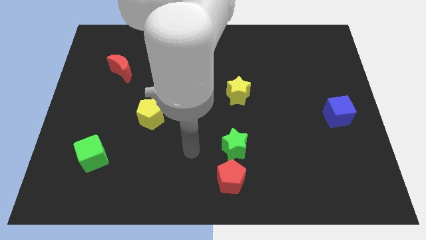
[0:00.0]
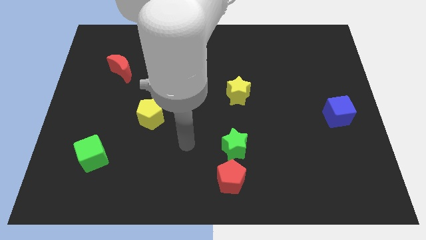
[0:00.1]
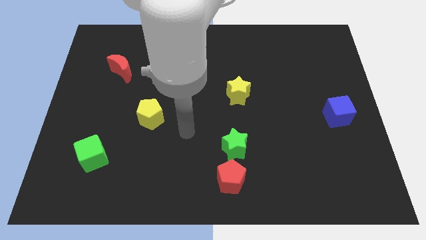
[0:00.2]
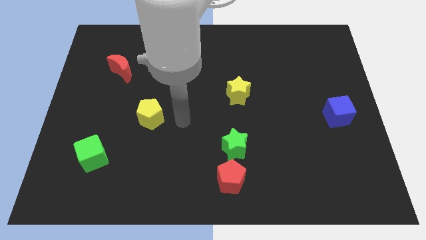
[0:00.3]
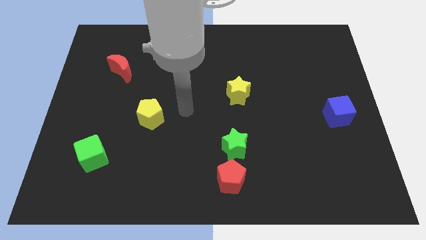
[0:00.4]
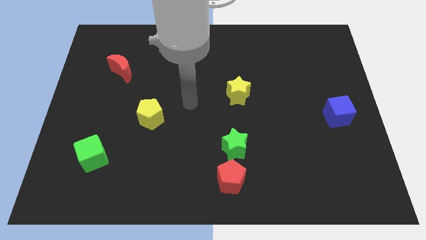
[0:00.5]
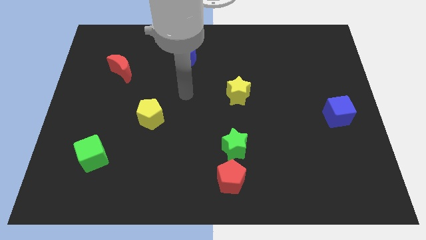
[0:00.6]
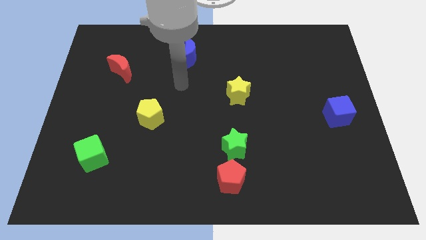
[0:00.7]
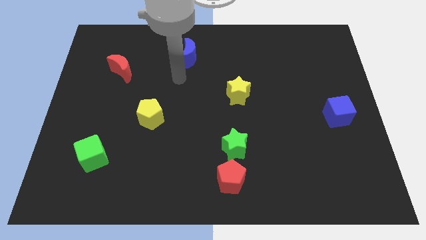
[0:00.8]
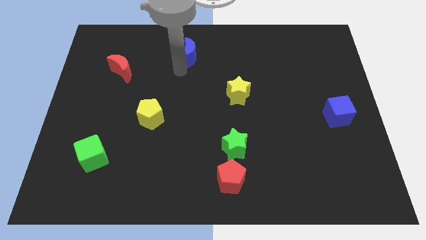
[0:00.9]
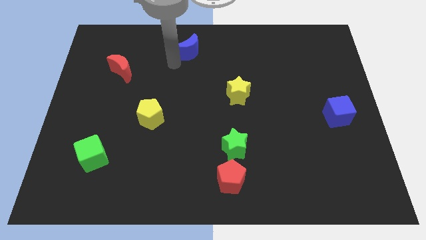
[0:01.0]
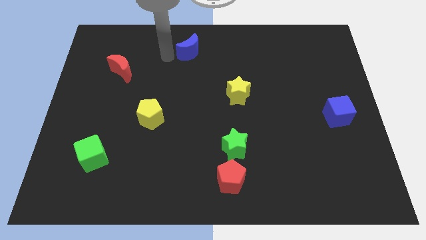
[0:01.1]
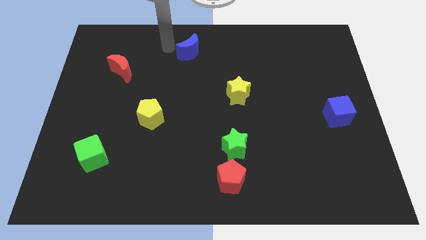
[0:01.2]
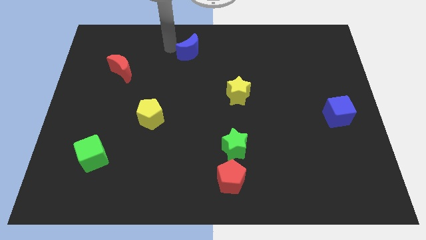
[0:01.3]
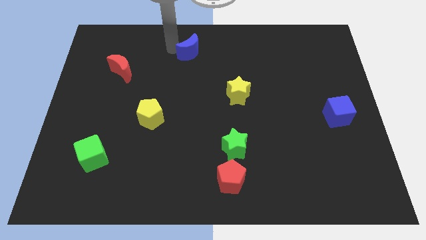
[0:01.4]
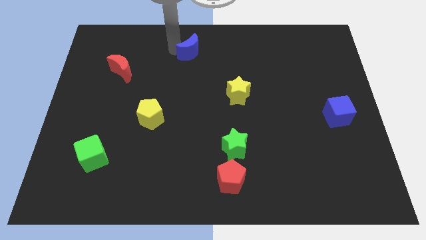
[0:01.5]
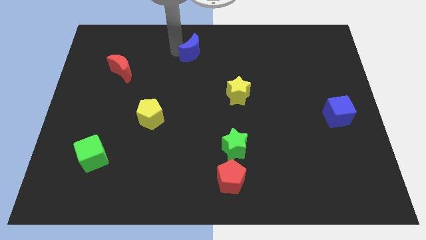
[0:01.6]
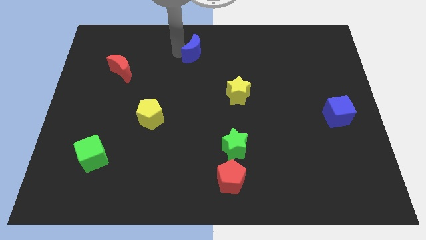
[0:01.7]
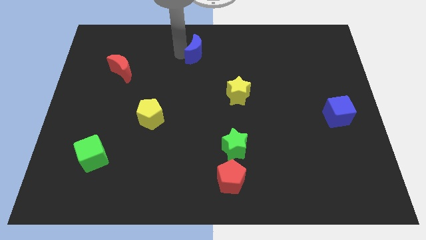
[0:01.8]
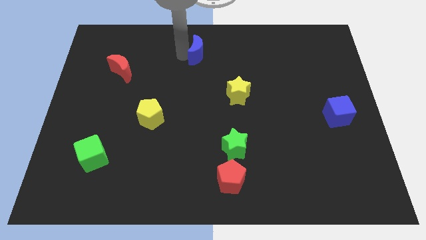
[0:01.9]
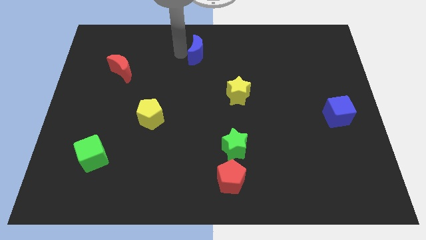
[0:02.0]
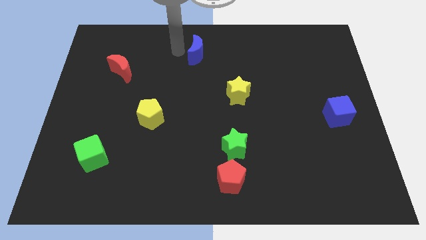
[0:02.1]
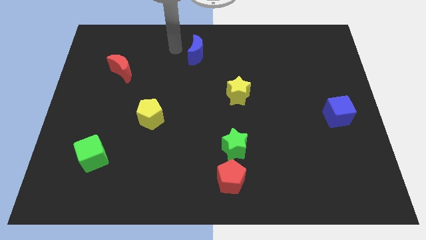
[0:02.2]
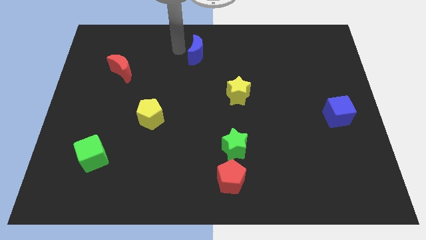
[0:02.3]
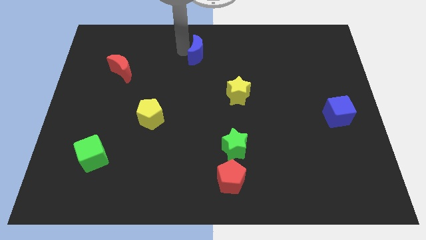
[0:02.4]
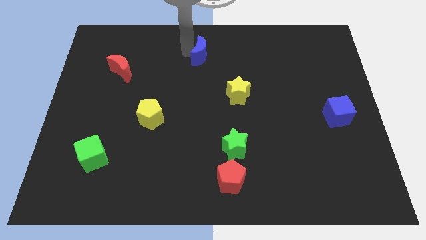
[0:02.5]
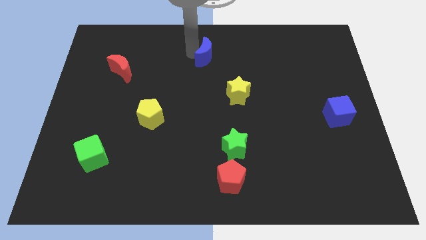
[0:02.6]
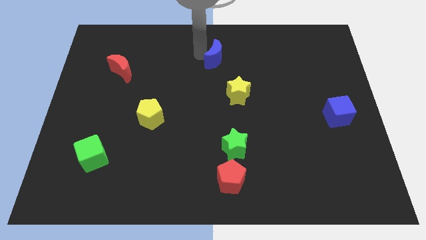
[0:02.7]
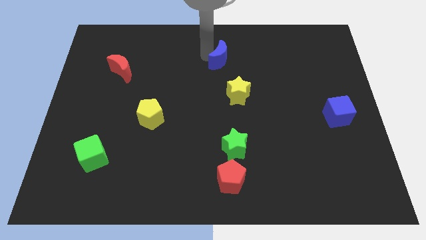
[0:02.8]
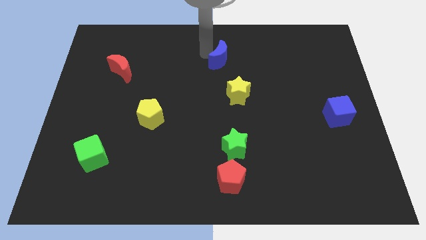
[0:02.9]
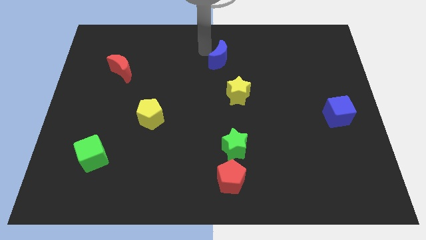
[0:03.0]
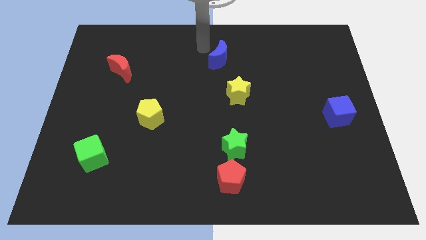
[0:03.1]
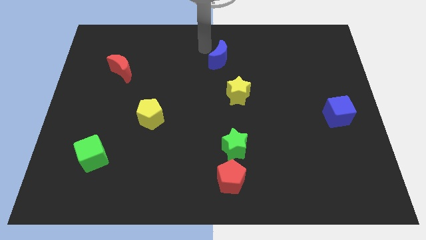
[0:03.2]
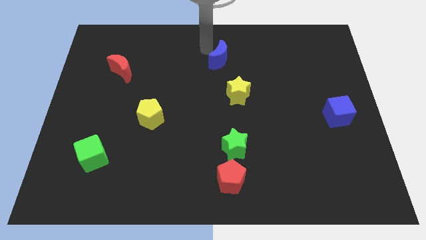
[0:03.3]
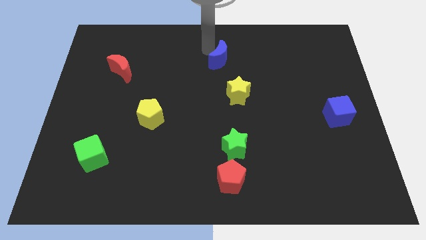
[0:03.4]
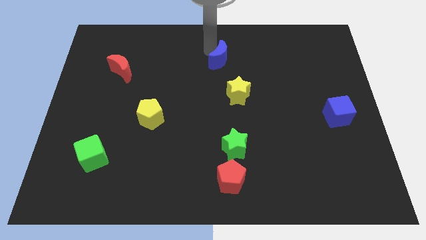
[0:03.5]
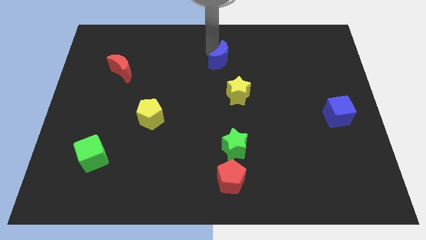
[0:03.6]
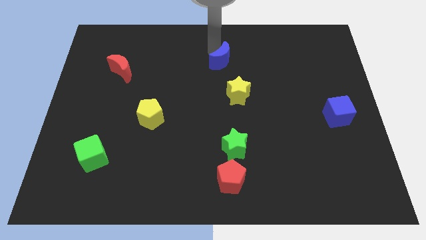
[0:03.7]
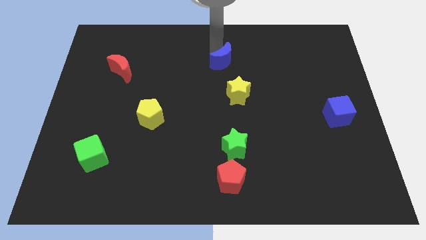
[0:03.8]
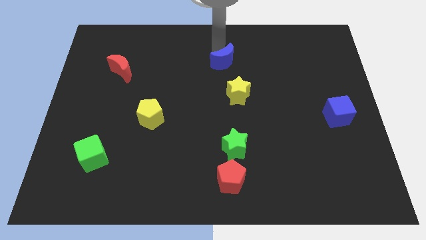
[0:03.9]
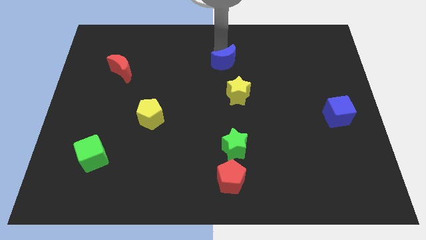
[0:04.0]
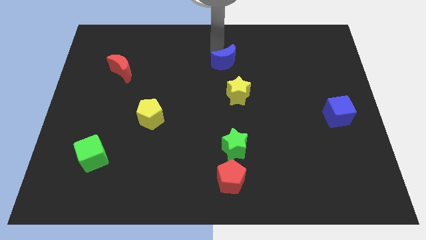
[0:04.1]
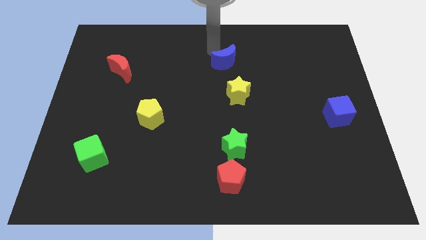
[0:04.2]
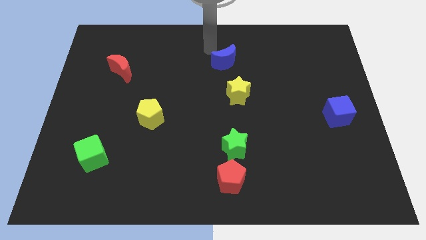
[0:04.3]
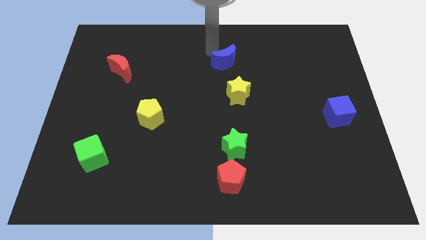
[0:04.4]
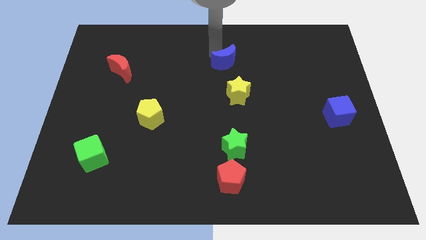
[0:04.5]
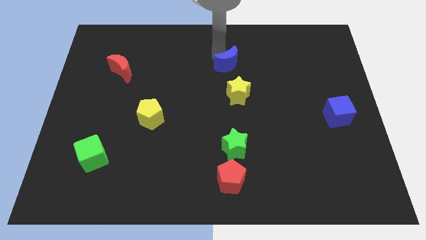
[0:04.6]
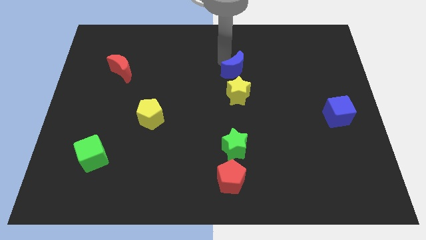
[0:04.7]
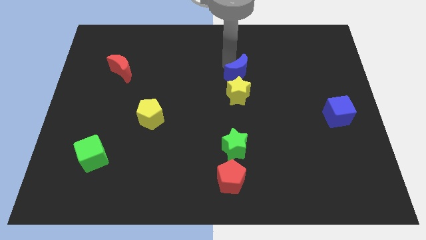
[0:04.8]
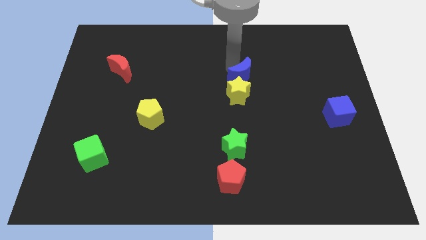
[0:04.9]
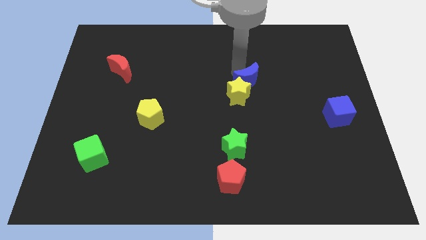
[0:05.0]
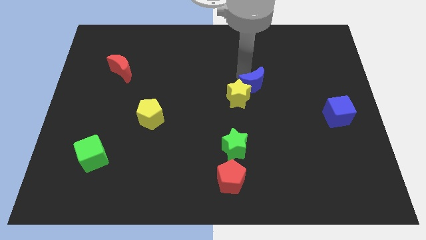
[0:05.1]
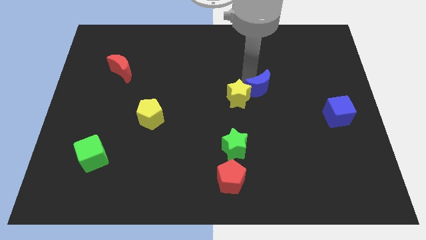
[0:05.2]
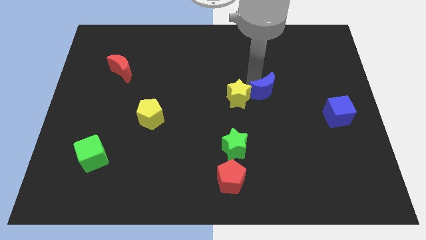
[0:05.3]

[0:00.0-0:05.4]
push the blue moon diagonally downwards and right

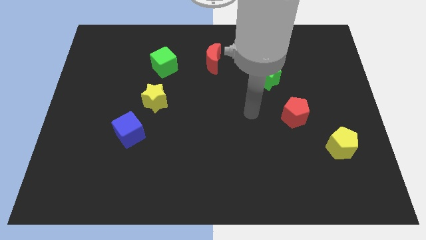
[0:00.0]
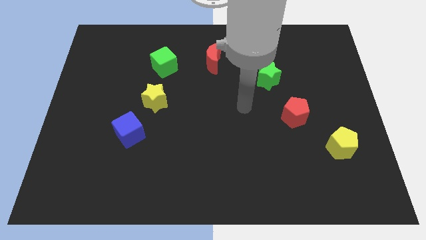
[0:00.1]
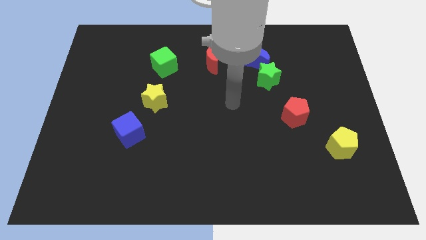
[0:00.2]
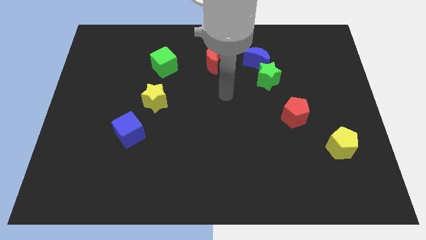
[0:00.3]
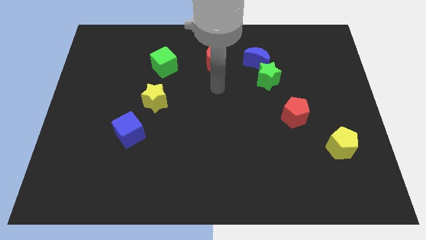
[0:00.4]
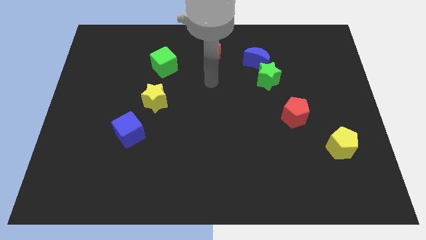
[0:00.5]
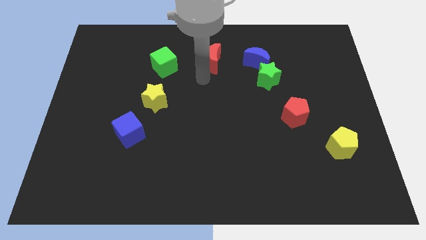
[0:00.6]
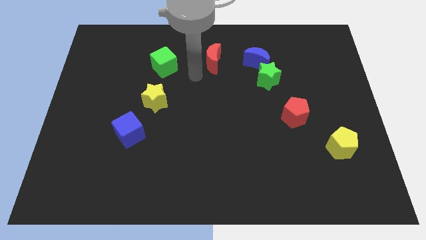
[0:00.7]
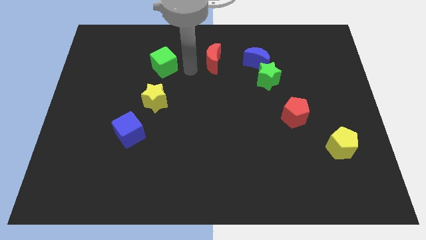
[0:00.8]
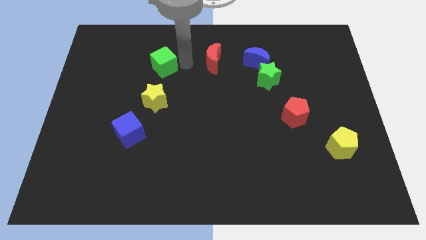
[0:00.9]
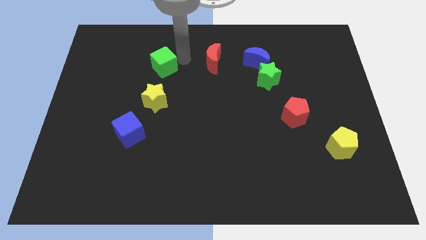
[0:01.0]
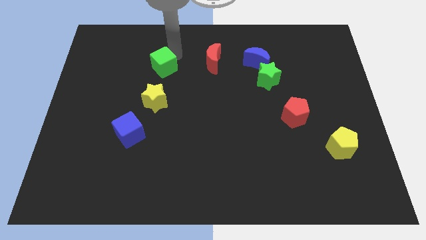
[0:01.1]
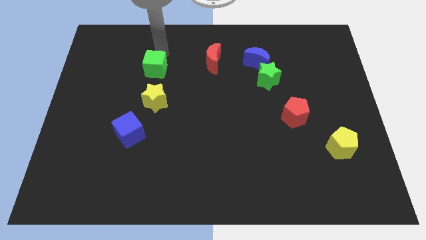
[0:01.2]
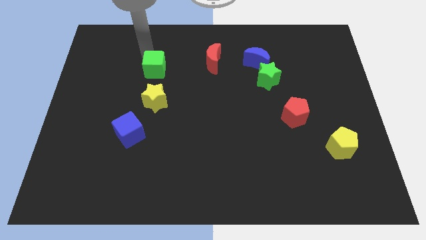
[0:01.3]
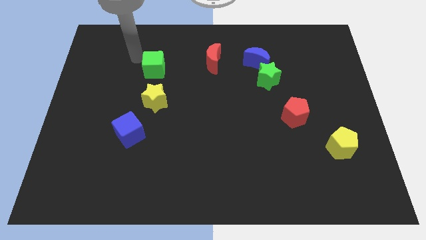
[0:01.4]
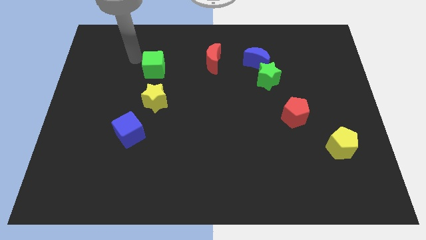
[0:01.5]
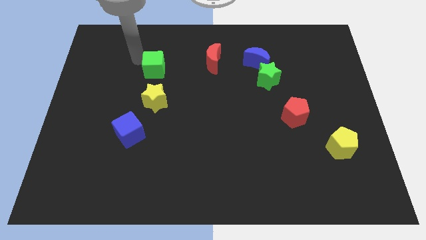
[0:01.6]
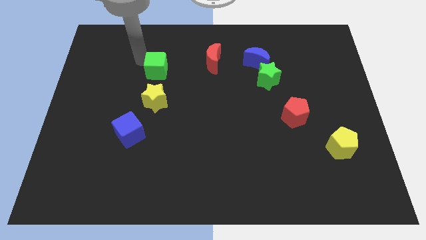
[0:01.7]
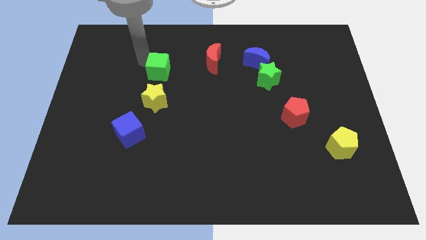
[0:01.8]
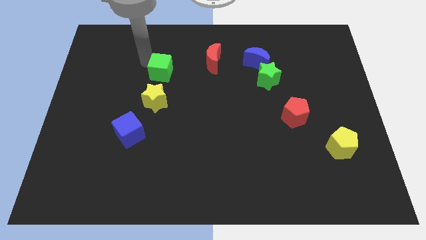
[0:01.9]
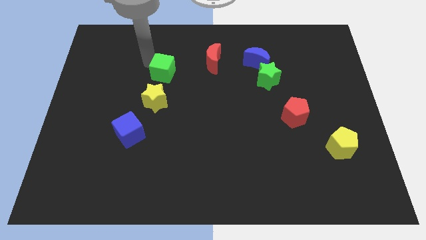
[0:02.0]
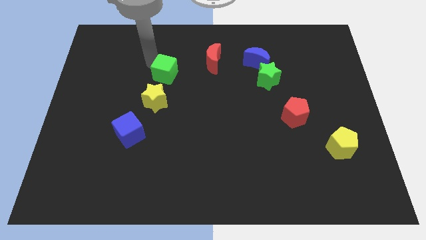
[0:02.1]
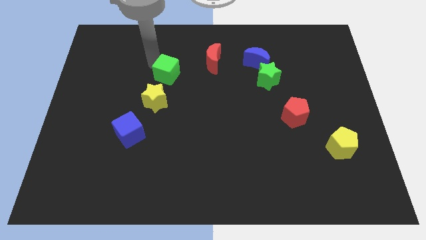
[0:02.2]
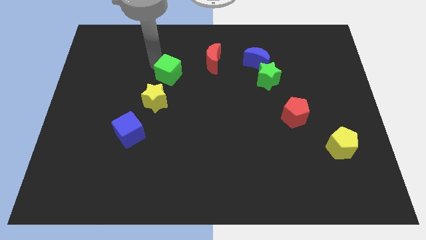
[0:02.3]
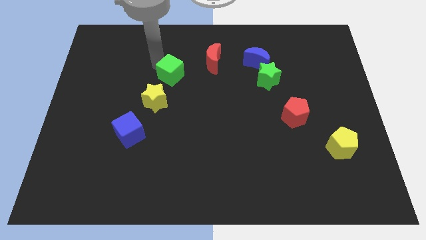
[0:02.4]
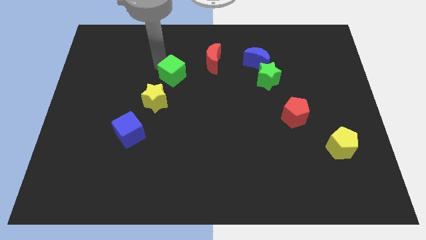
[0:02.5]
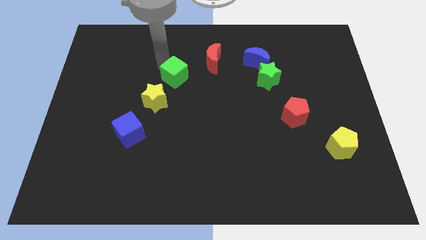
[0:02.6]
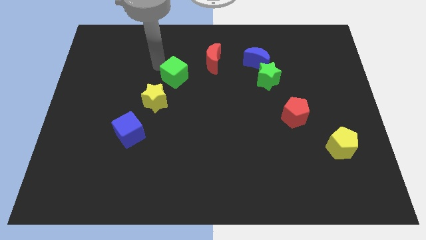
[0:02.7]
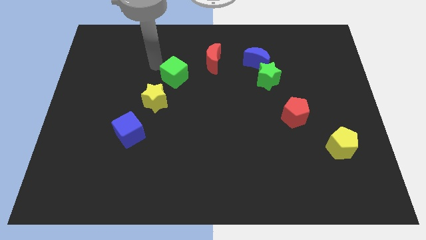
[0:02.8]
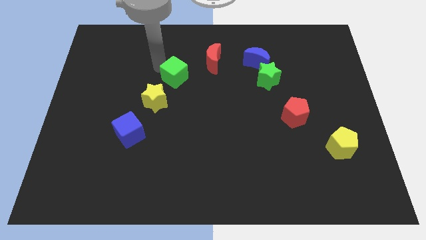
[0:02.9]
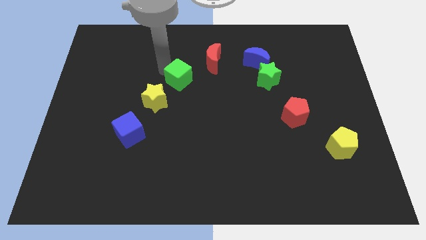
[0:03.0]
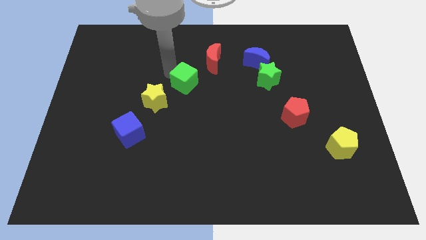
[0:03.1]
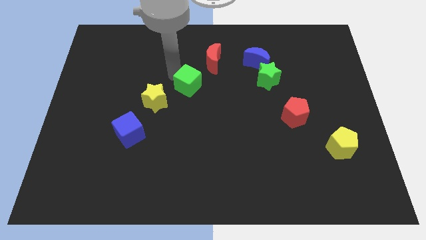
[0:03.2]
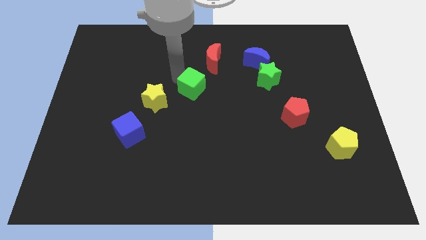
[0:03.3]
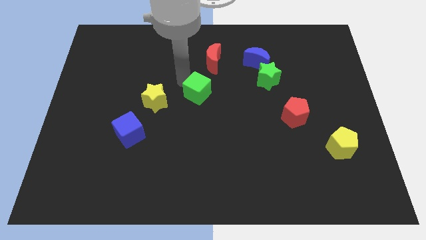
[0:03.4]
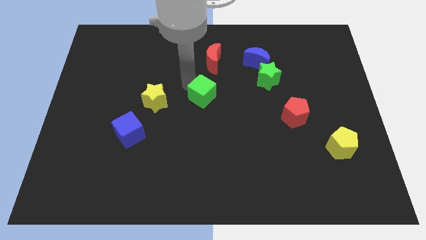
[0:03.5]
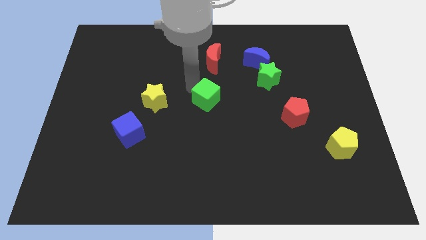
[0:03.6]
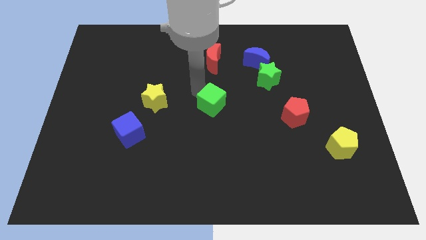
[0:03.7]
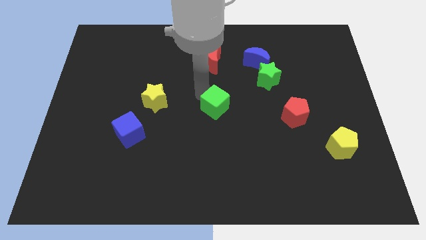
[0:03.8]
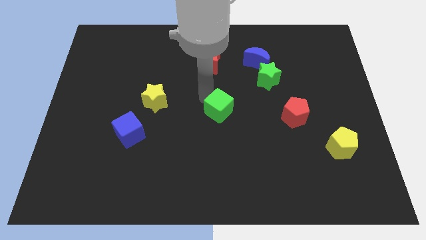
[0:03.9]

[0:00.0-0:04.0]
move the green cube downwards and right
